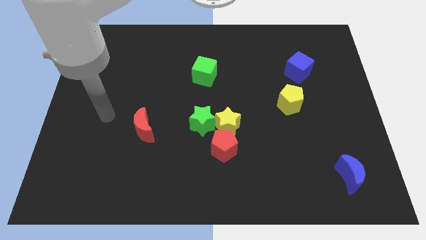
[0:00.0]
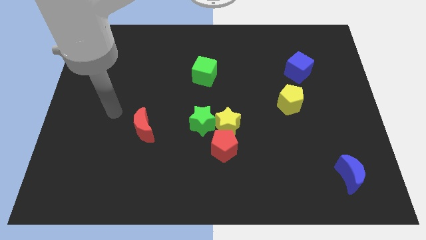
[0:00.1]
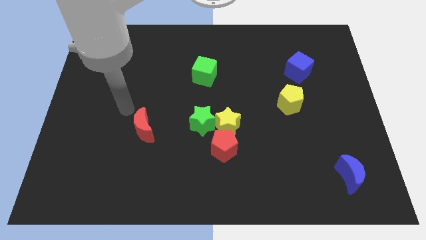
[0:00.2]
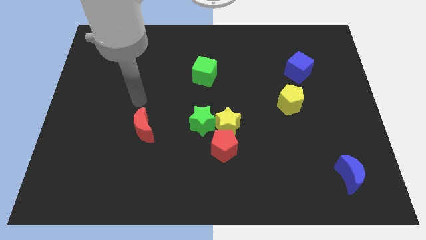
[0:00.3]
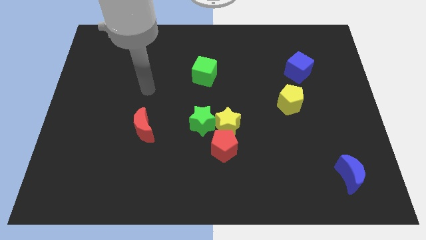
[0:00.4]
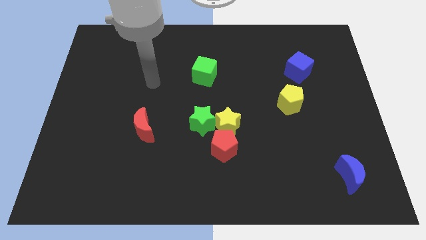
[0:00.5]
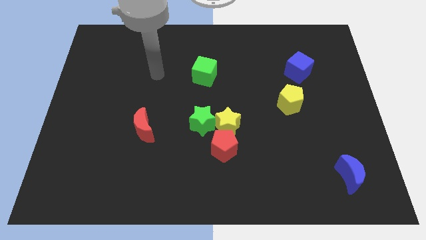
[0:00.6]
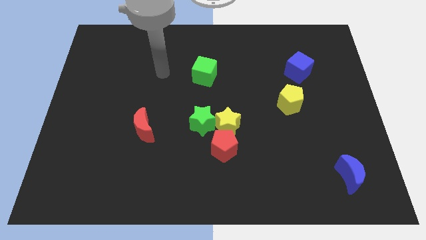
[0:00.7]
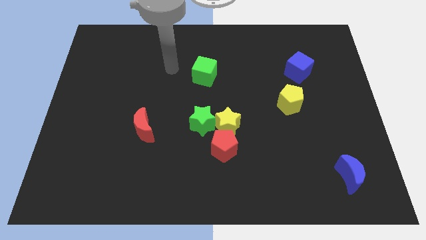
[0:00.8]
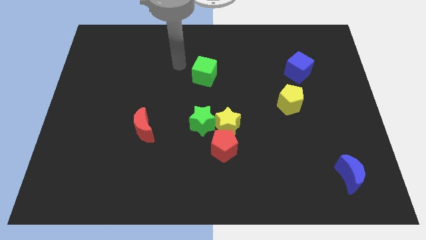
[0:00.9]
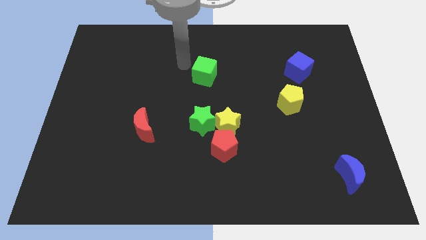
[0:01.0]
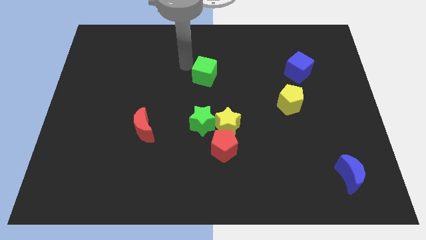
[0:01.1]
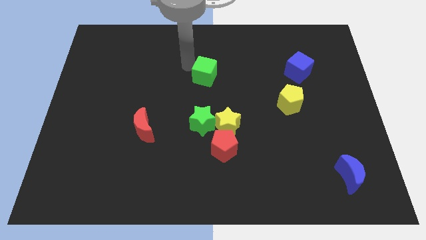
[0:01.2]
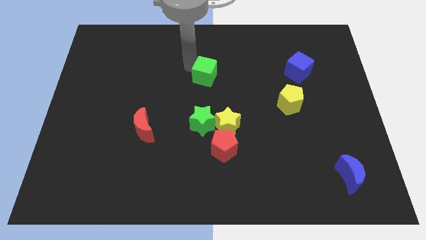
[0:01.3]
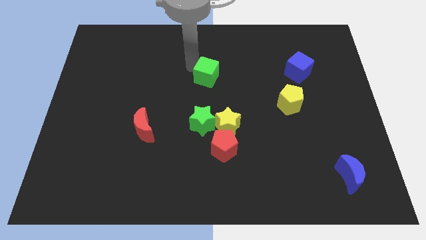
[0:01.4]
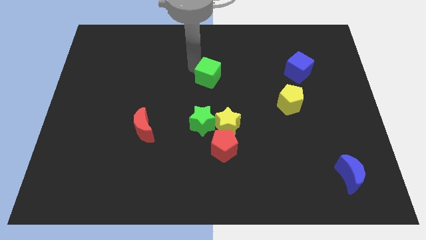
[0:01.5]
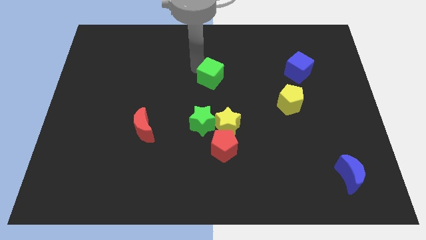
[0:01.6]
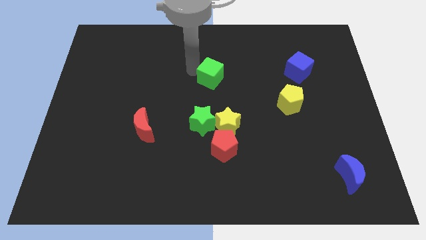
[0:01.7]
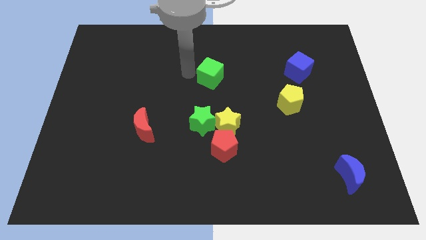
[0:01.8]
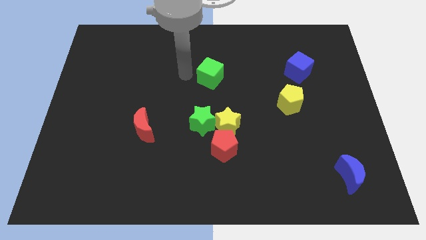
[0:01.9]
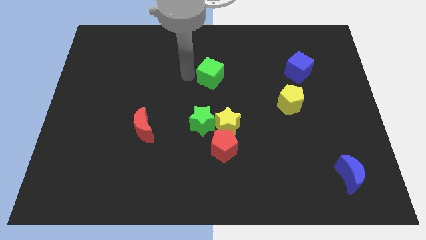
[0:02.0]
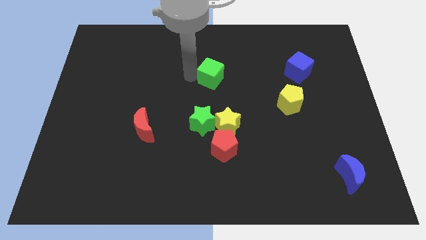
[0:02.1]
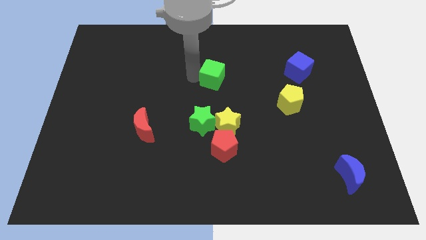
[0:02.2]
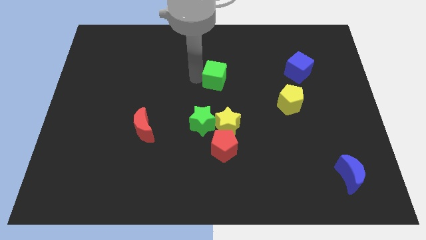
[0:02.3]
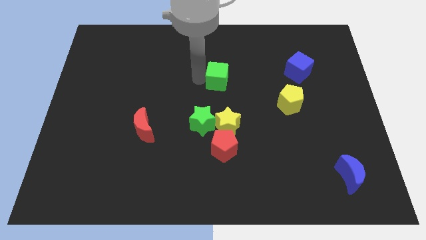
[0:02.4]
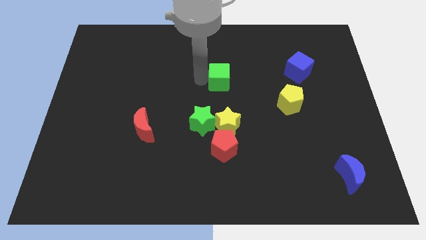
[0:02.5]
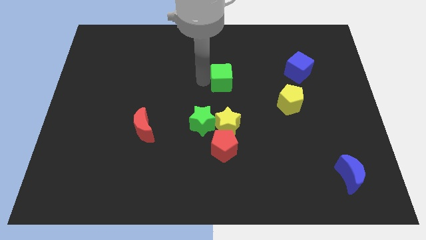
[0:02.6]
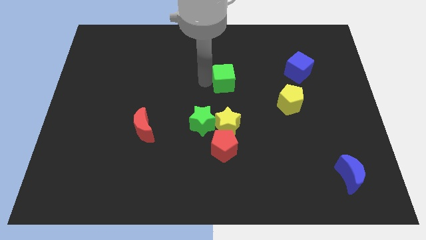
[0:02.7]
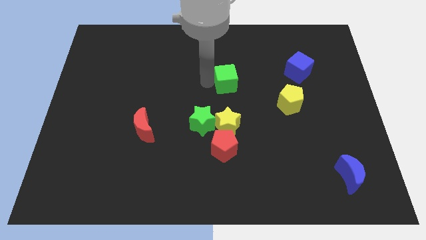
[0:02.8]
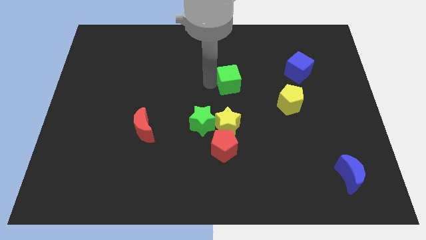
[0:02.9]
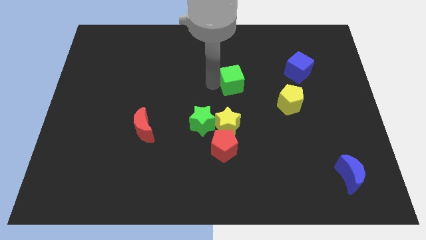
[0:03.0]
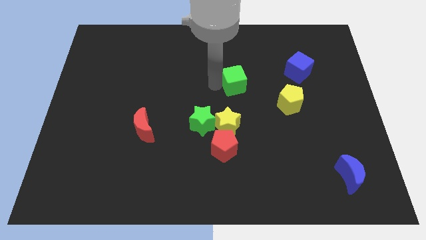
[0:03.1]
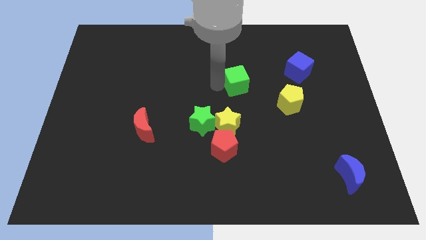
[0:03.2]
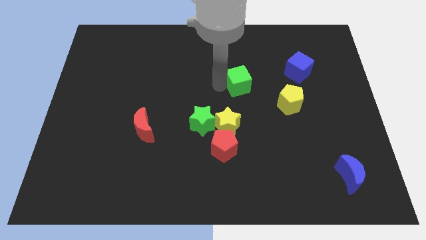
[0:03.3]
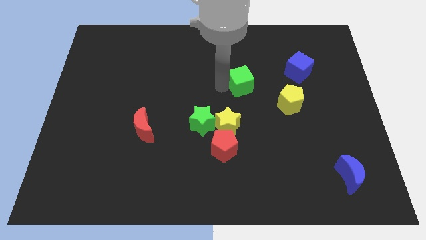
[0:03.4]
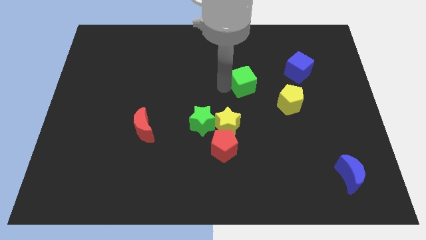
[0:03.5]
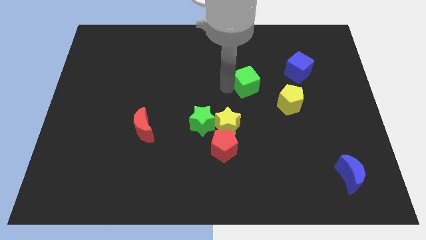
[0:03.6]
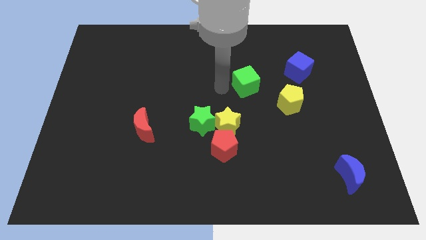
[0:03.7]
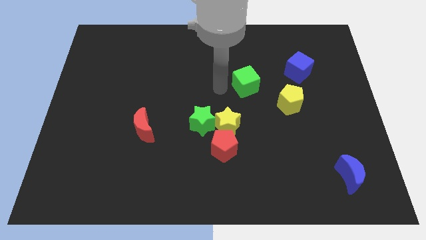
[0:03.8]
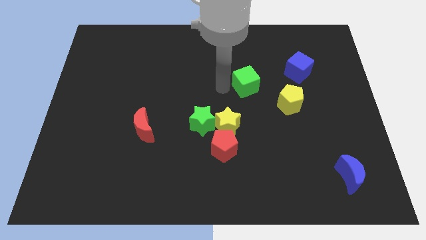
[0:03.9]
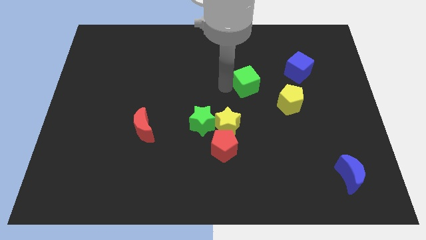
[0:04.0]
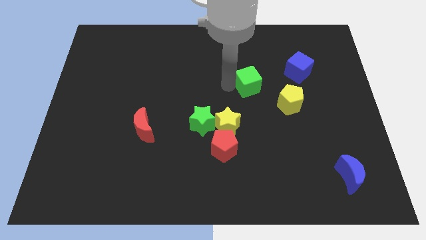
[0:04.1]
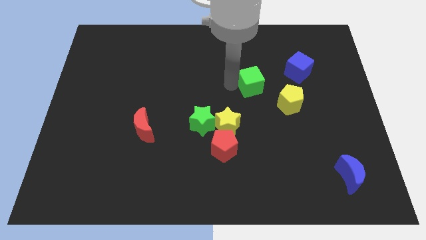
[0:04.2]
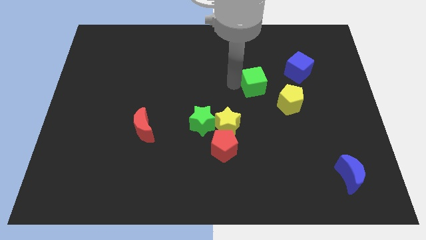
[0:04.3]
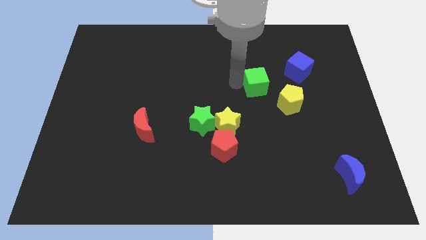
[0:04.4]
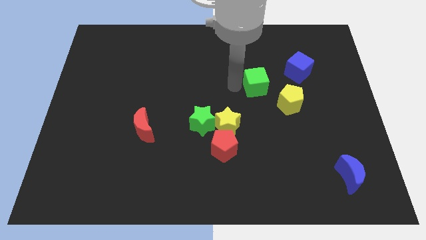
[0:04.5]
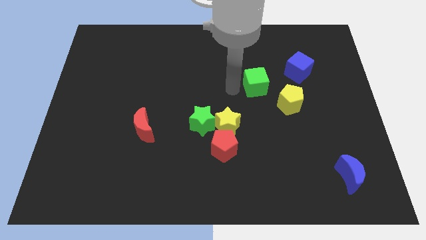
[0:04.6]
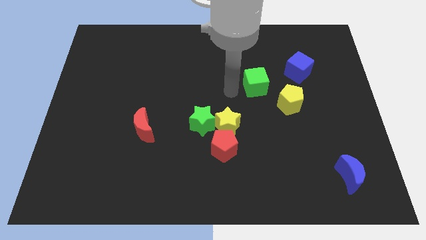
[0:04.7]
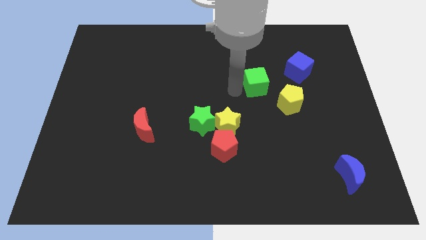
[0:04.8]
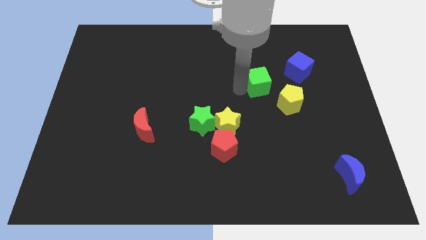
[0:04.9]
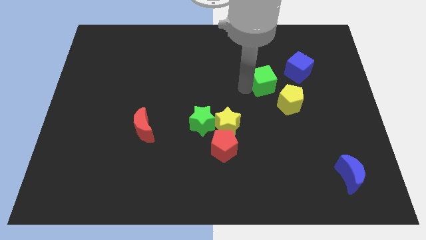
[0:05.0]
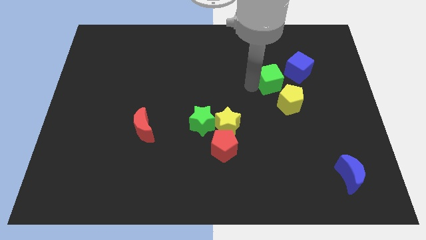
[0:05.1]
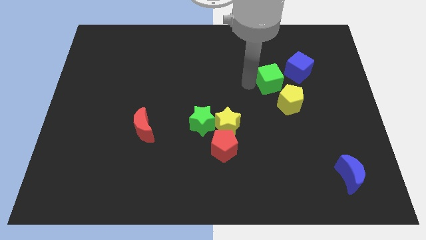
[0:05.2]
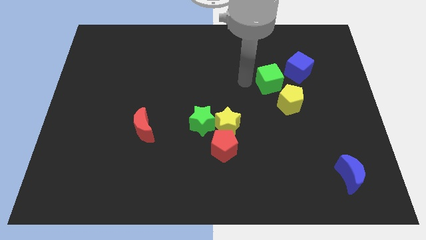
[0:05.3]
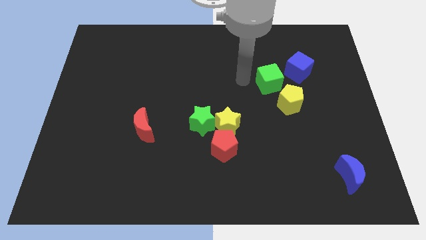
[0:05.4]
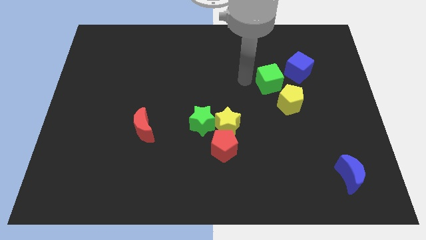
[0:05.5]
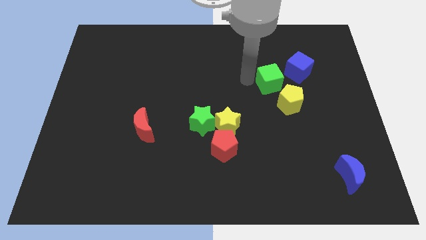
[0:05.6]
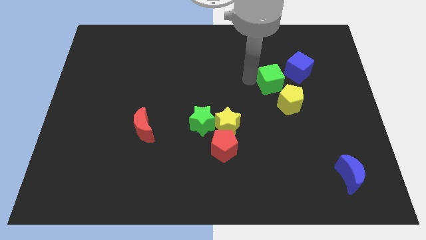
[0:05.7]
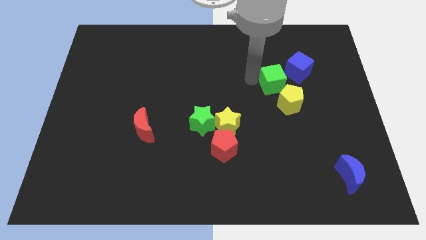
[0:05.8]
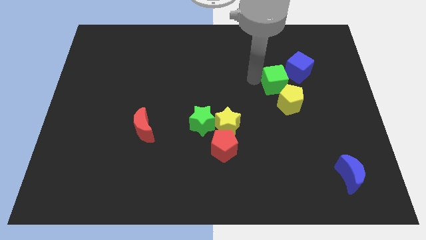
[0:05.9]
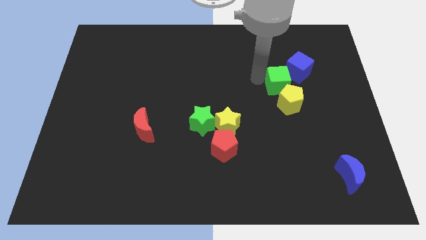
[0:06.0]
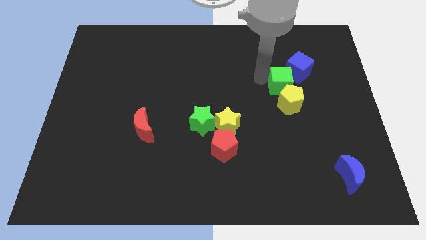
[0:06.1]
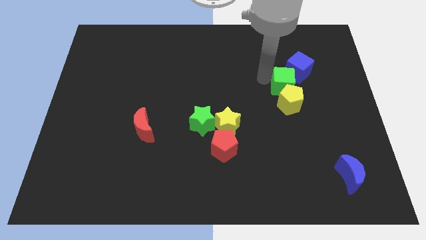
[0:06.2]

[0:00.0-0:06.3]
slide the green cube to the top right side of the yellow pentagon
